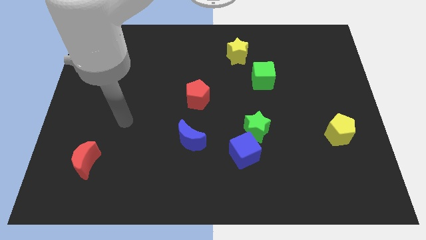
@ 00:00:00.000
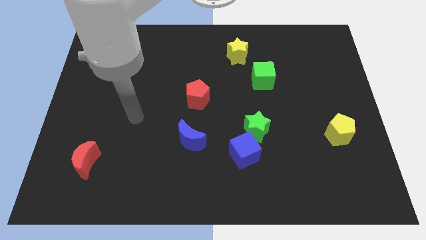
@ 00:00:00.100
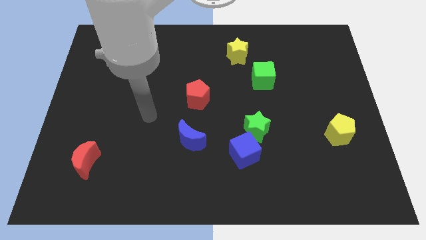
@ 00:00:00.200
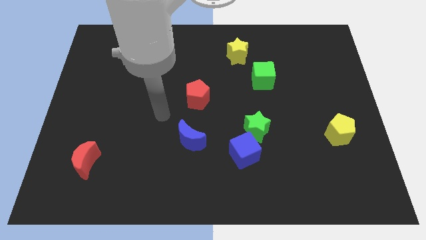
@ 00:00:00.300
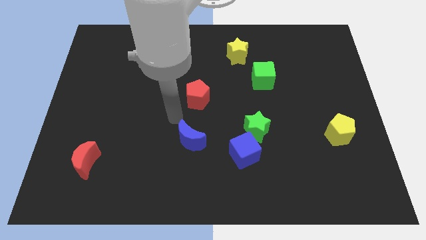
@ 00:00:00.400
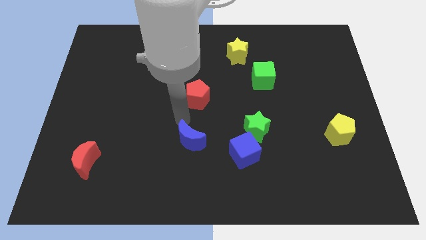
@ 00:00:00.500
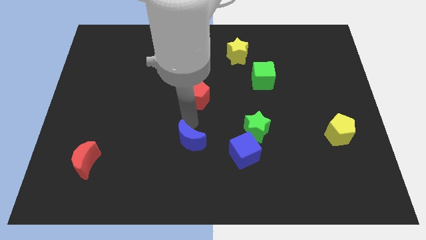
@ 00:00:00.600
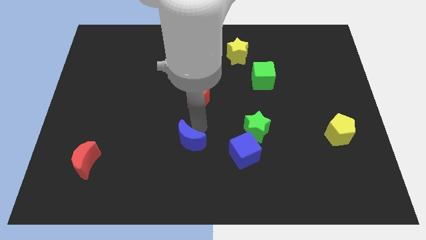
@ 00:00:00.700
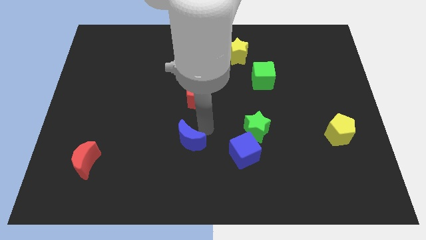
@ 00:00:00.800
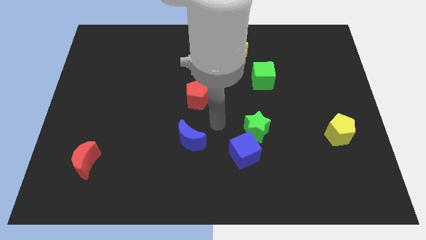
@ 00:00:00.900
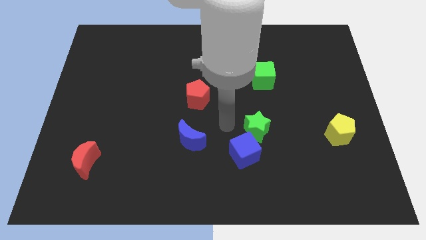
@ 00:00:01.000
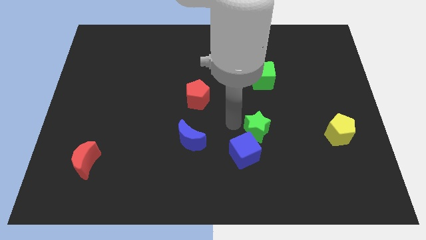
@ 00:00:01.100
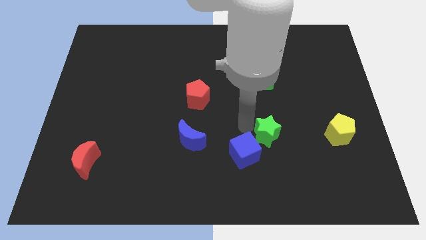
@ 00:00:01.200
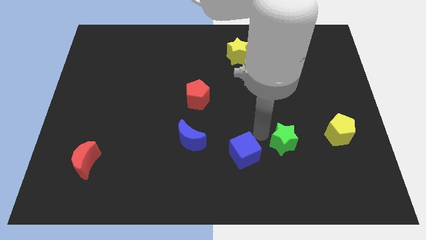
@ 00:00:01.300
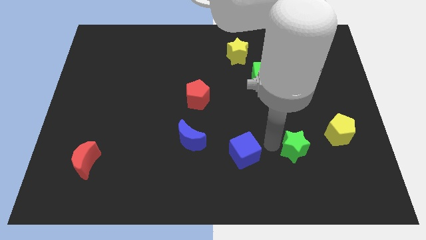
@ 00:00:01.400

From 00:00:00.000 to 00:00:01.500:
separate the blue cube from the green star

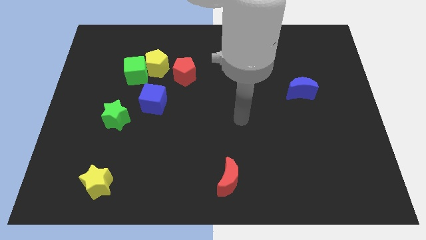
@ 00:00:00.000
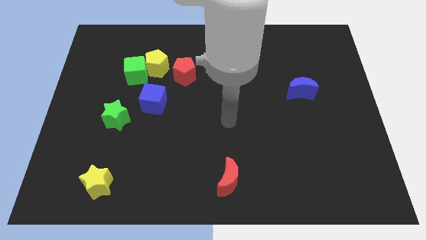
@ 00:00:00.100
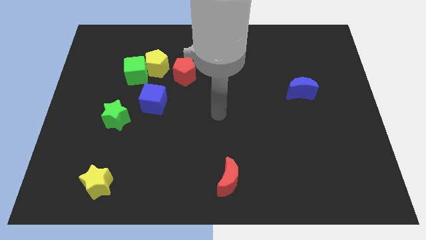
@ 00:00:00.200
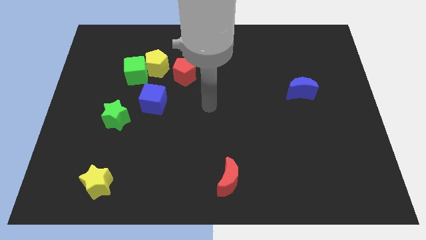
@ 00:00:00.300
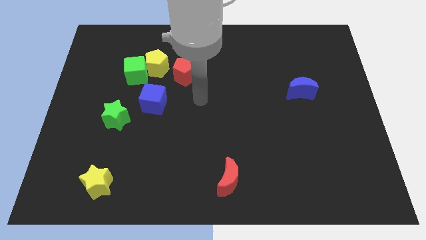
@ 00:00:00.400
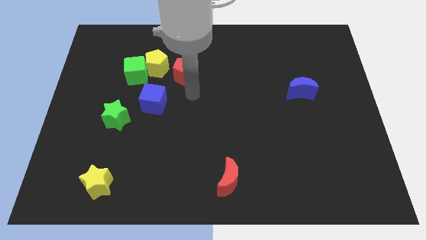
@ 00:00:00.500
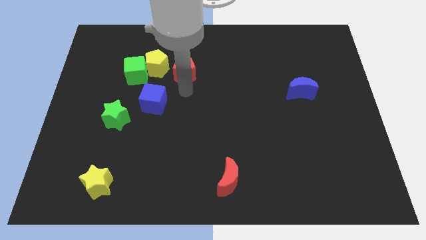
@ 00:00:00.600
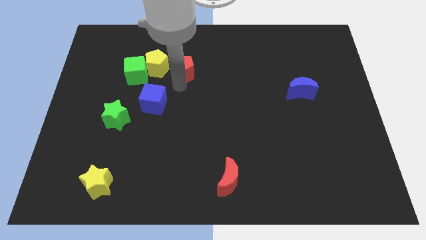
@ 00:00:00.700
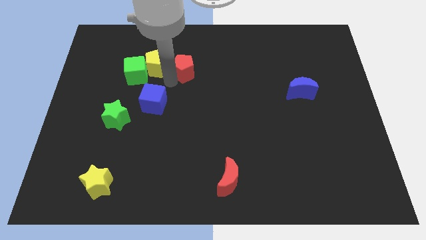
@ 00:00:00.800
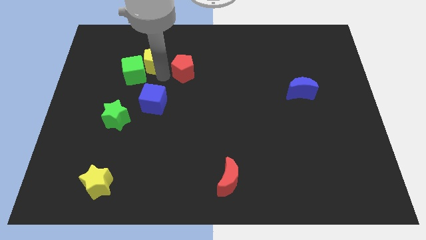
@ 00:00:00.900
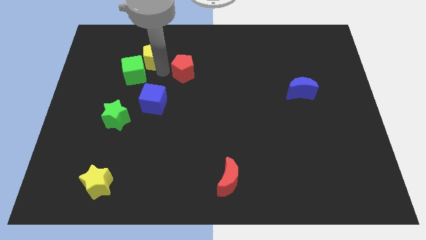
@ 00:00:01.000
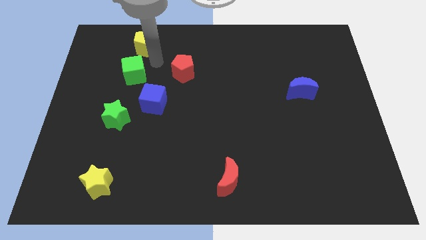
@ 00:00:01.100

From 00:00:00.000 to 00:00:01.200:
separate the green cube from the yellow pentagon

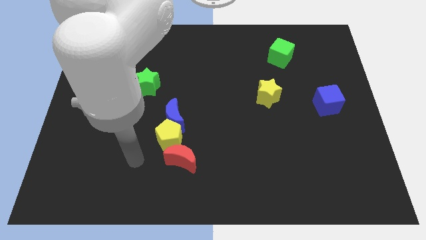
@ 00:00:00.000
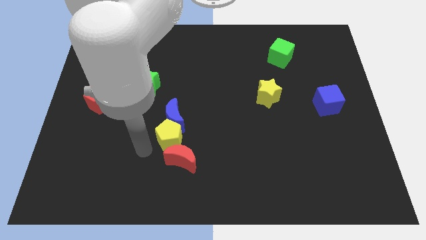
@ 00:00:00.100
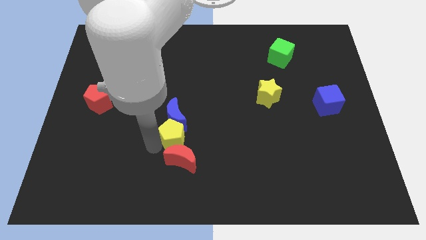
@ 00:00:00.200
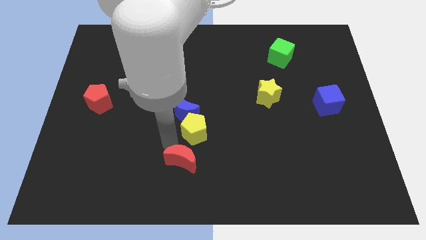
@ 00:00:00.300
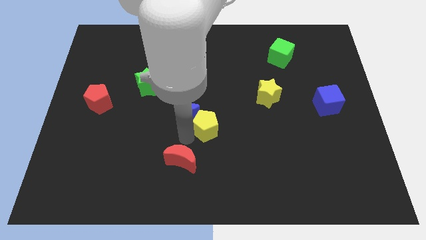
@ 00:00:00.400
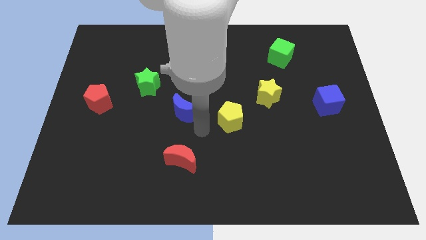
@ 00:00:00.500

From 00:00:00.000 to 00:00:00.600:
pull the blue moon apart from the yellow pentagon

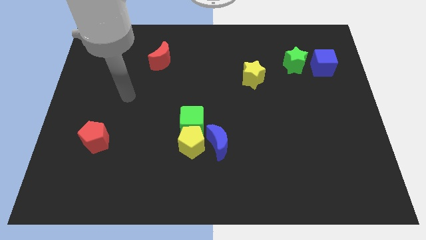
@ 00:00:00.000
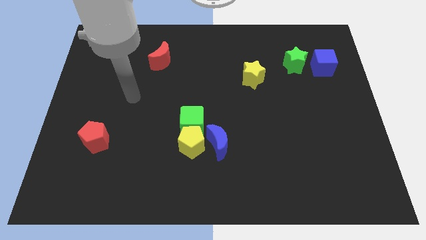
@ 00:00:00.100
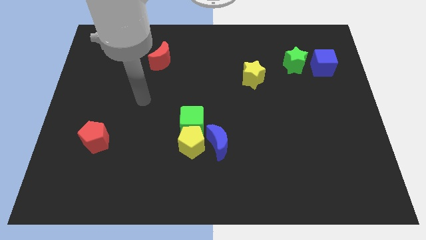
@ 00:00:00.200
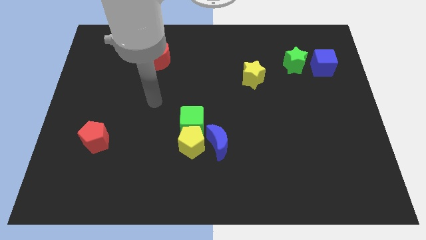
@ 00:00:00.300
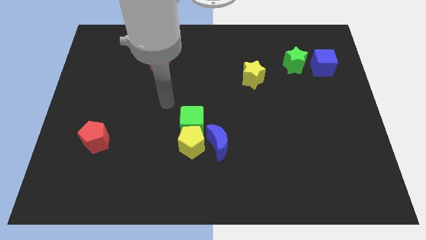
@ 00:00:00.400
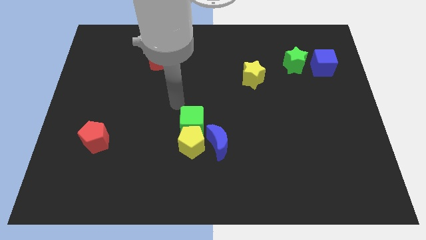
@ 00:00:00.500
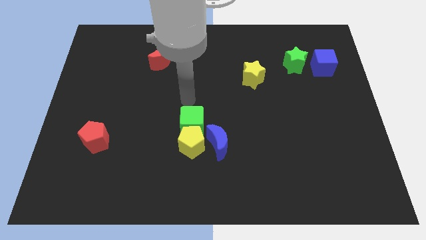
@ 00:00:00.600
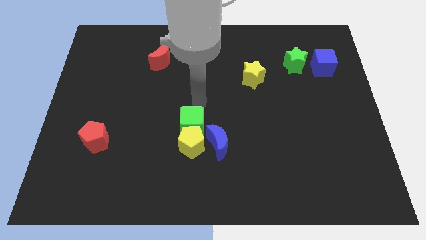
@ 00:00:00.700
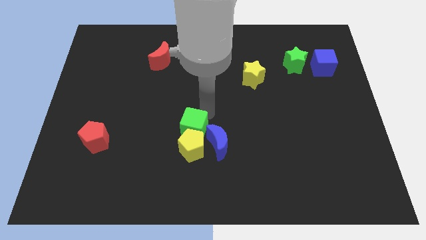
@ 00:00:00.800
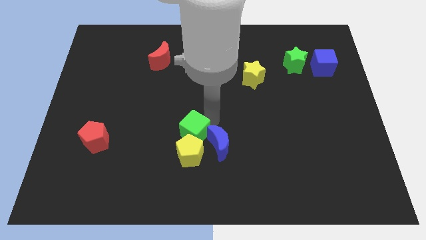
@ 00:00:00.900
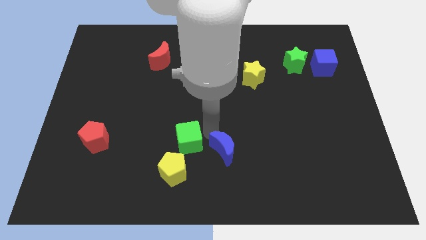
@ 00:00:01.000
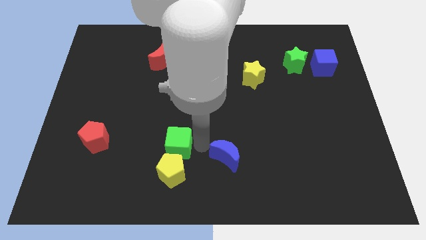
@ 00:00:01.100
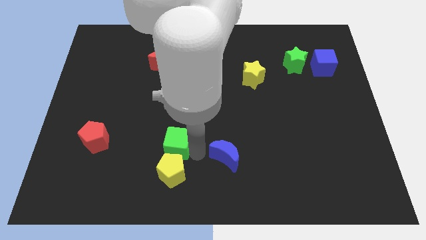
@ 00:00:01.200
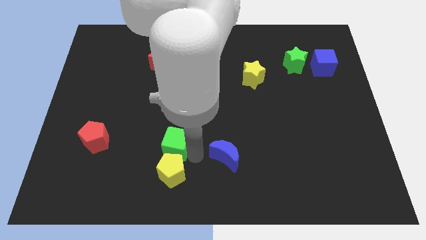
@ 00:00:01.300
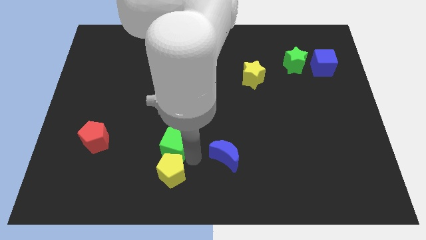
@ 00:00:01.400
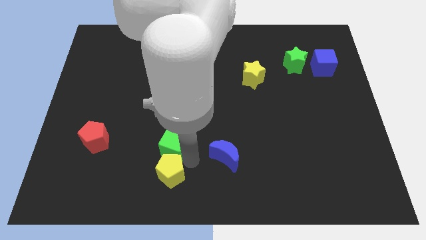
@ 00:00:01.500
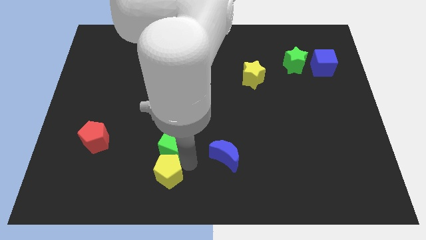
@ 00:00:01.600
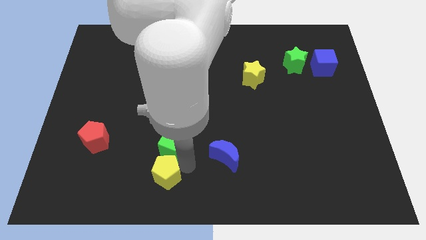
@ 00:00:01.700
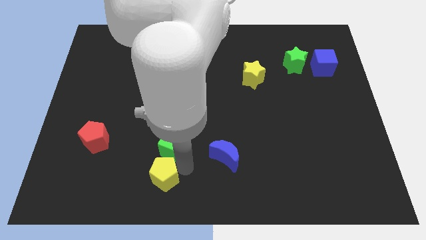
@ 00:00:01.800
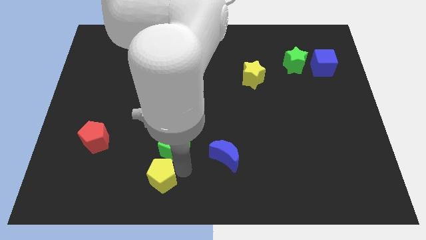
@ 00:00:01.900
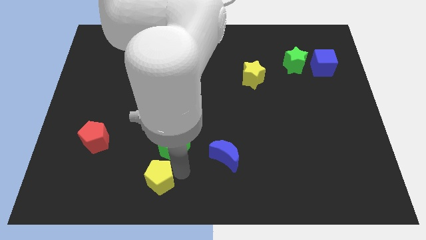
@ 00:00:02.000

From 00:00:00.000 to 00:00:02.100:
pull the yellow pentagon apart from the green cube and blue moon

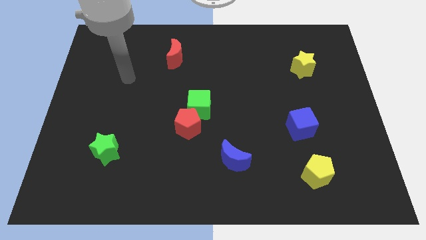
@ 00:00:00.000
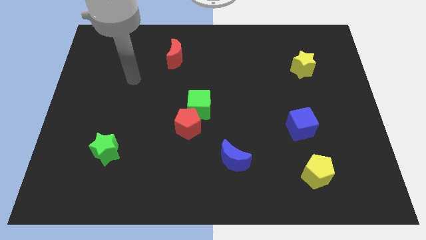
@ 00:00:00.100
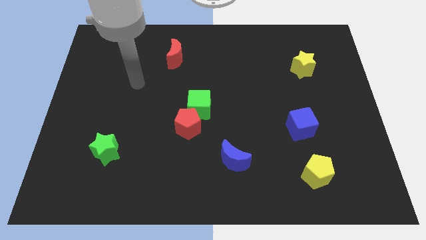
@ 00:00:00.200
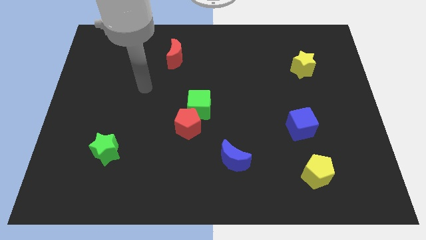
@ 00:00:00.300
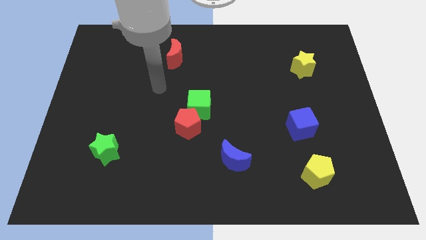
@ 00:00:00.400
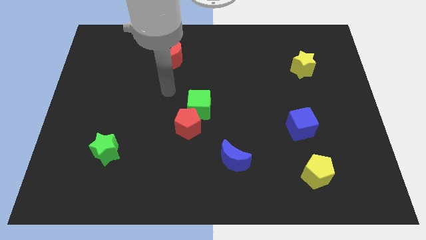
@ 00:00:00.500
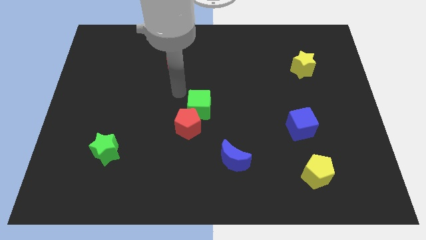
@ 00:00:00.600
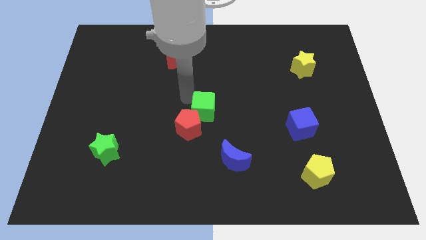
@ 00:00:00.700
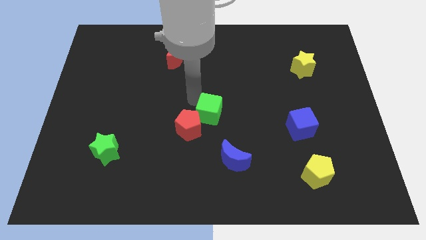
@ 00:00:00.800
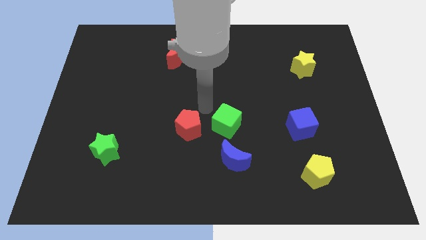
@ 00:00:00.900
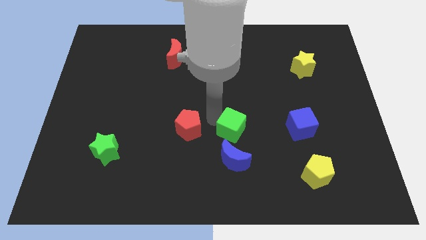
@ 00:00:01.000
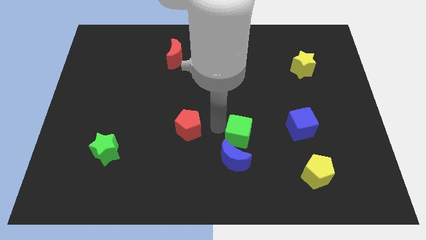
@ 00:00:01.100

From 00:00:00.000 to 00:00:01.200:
pull the red pentagon apart from the green cube

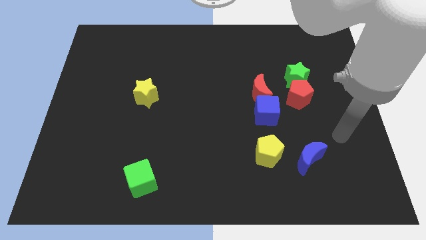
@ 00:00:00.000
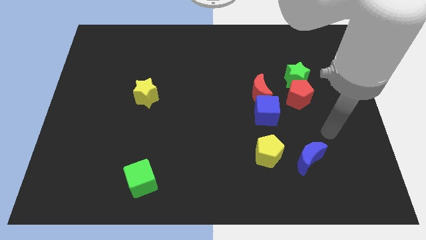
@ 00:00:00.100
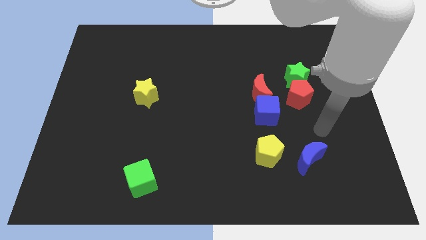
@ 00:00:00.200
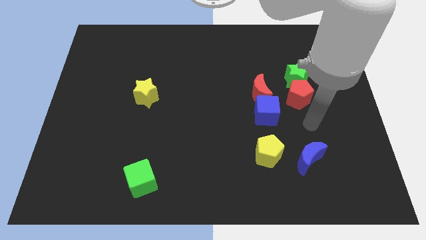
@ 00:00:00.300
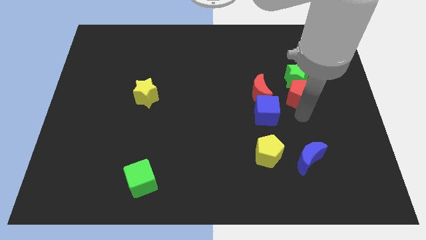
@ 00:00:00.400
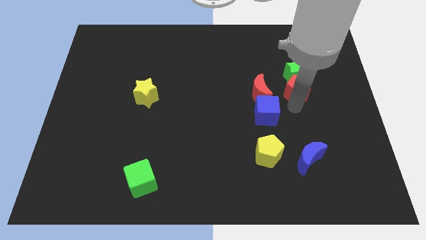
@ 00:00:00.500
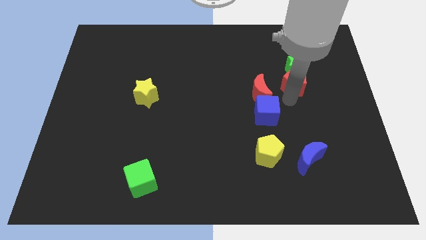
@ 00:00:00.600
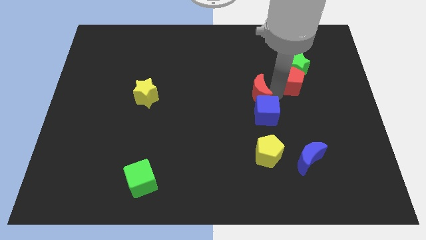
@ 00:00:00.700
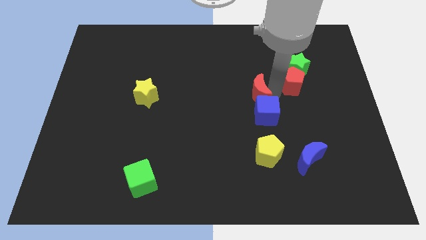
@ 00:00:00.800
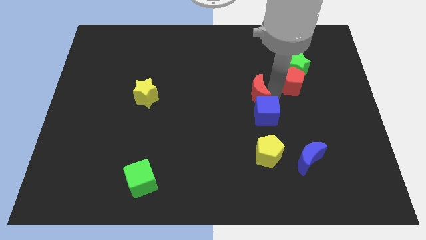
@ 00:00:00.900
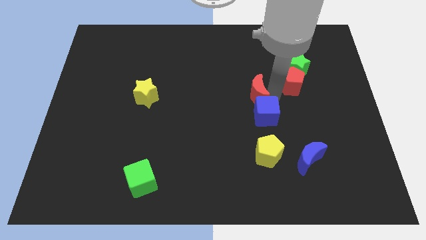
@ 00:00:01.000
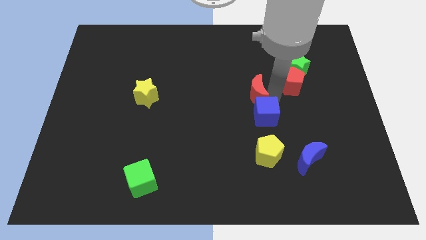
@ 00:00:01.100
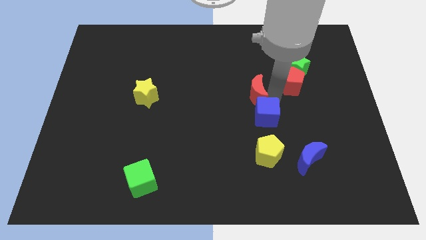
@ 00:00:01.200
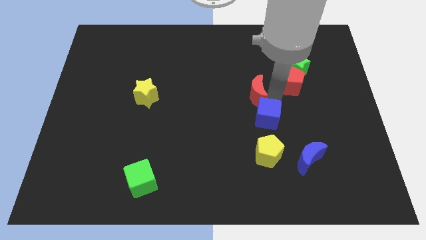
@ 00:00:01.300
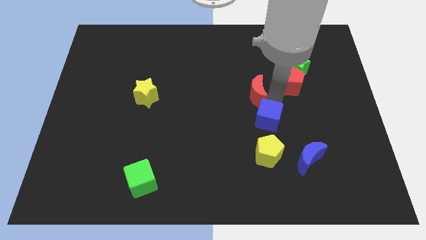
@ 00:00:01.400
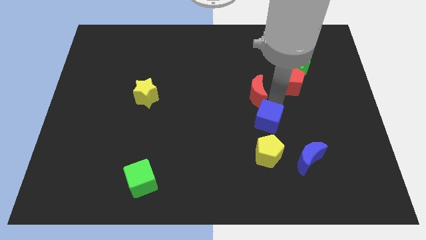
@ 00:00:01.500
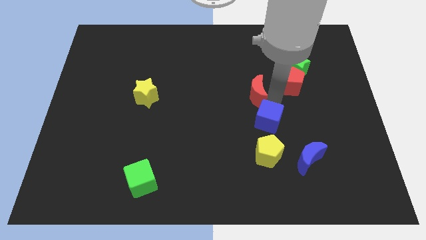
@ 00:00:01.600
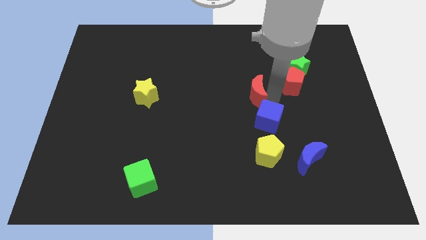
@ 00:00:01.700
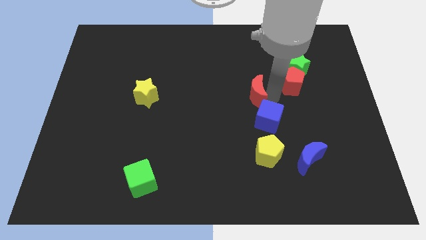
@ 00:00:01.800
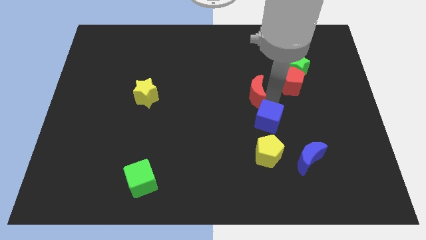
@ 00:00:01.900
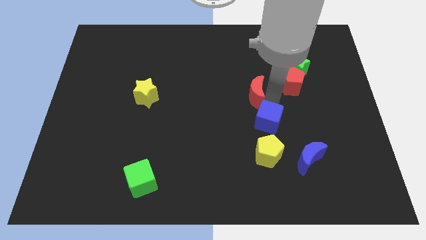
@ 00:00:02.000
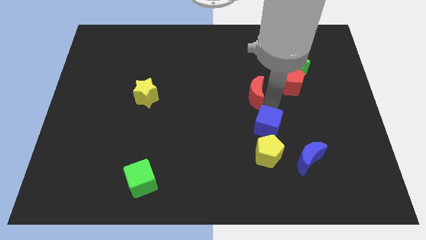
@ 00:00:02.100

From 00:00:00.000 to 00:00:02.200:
move the blue cube away from the red moon and red pentagon

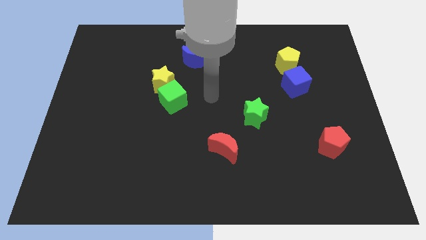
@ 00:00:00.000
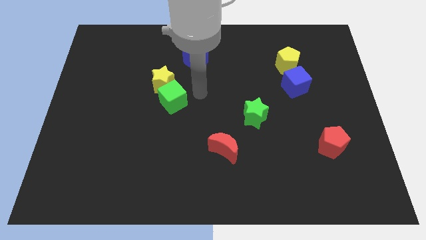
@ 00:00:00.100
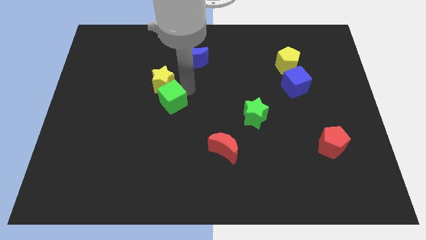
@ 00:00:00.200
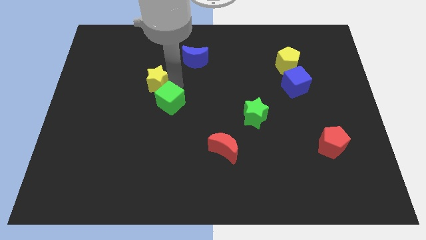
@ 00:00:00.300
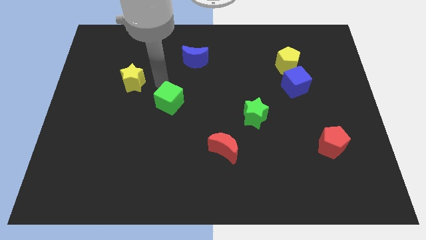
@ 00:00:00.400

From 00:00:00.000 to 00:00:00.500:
pull the green cube apart from the yellow star

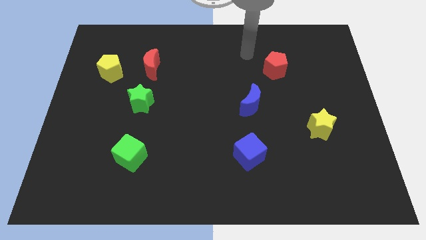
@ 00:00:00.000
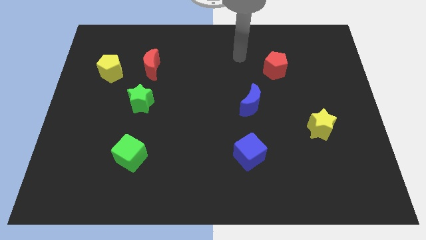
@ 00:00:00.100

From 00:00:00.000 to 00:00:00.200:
move the red moon away from the yellow pentagon
